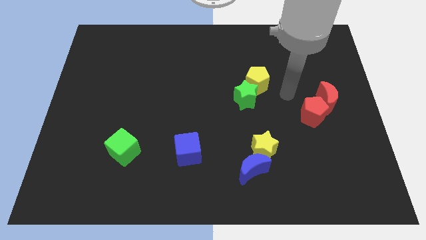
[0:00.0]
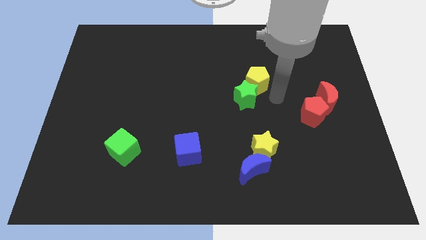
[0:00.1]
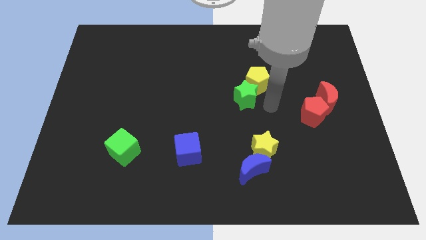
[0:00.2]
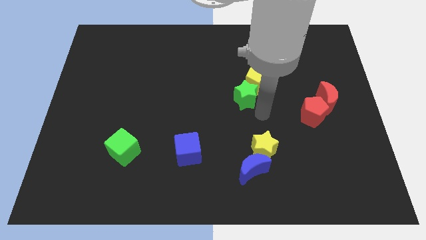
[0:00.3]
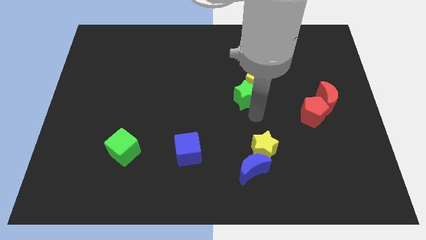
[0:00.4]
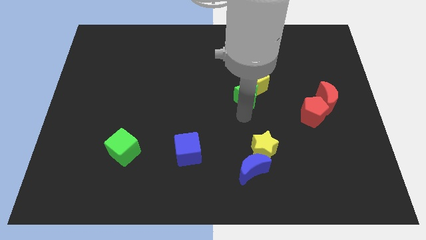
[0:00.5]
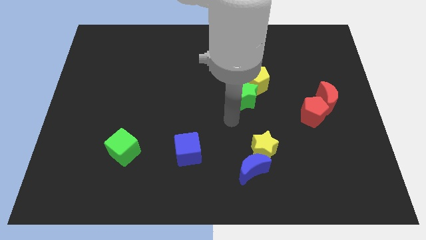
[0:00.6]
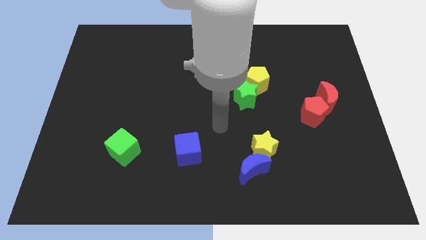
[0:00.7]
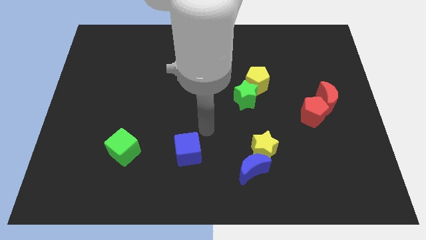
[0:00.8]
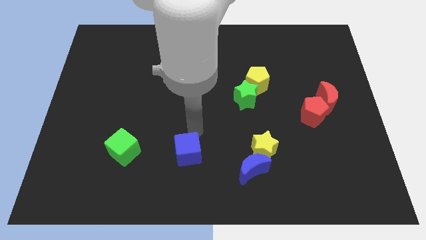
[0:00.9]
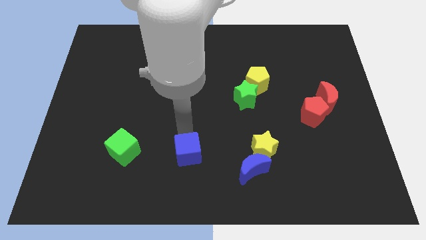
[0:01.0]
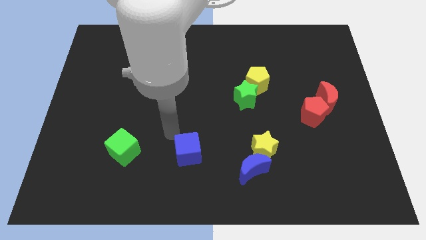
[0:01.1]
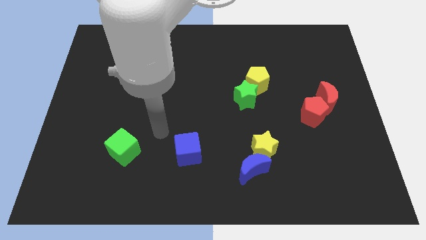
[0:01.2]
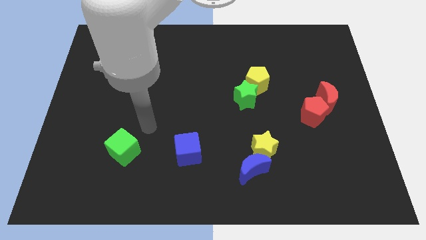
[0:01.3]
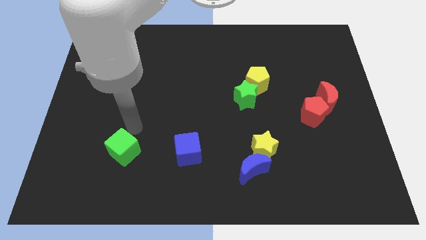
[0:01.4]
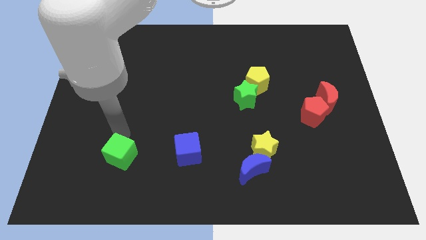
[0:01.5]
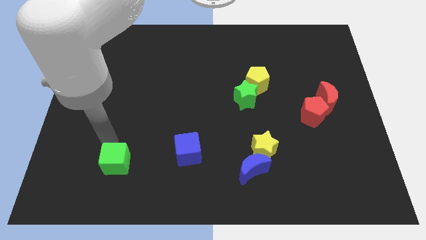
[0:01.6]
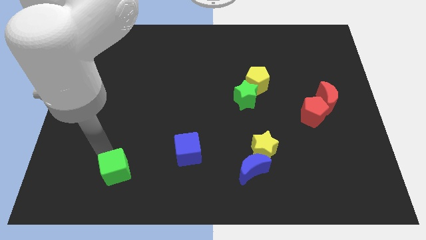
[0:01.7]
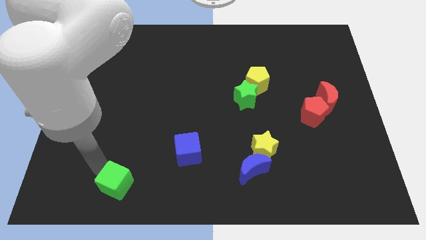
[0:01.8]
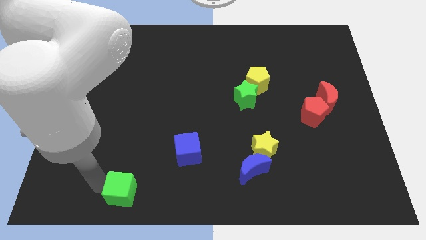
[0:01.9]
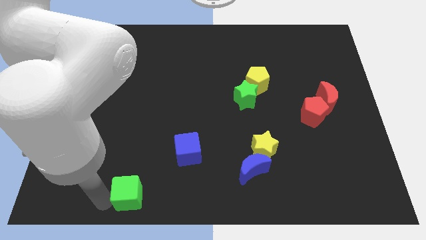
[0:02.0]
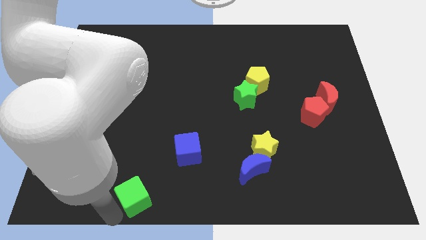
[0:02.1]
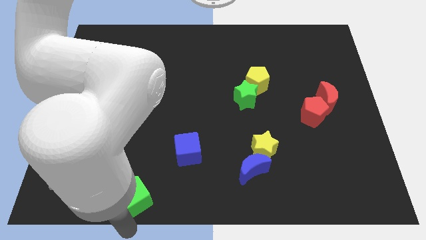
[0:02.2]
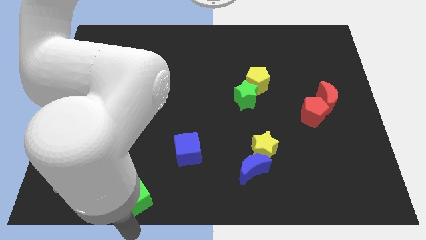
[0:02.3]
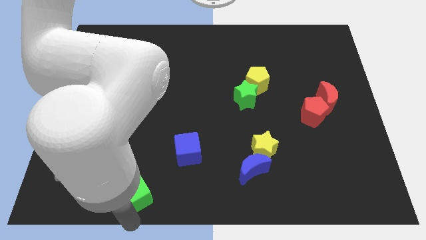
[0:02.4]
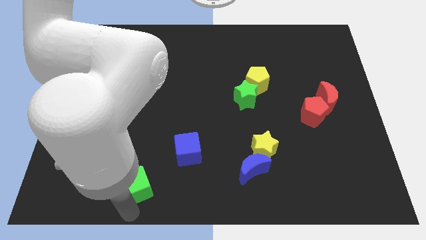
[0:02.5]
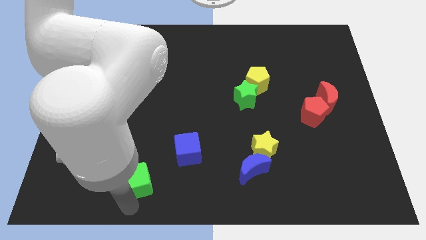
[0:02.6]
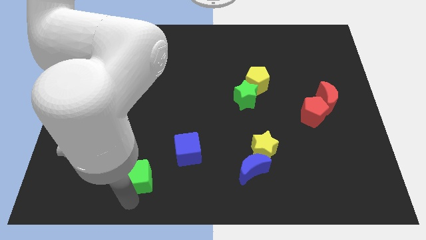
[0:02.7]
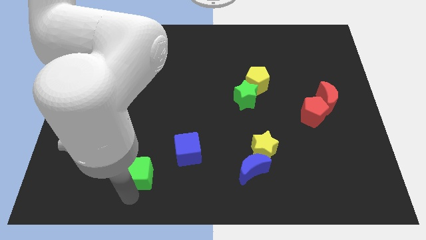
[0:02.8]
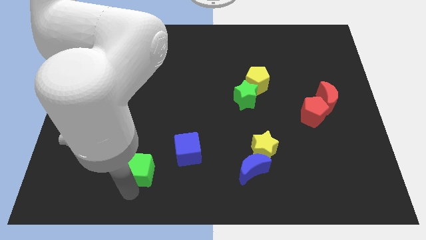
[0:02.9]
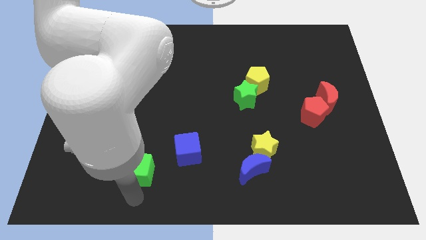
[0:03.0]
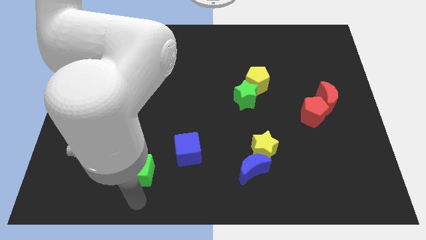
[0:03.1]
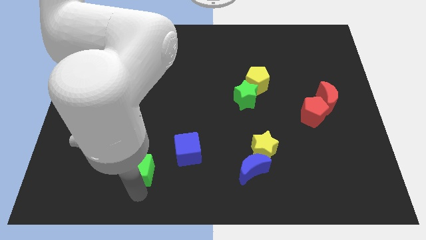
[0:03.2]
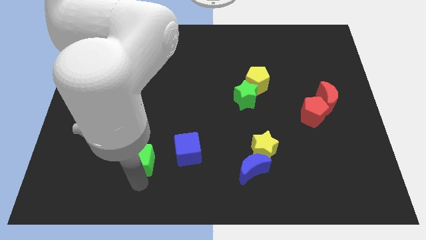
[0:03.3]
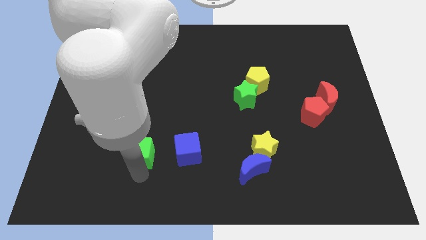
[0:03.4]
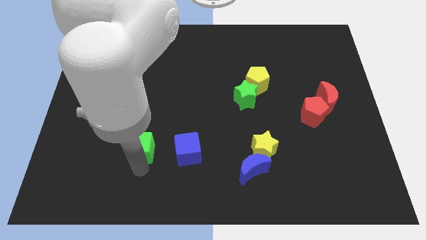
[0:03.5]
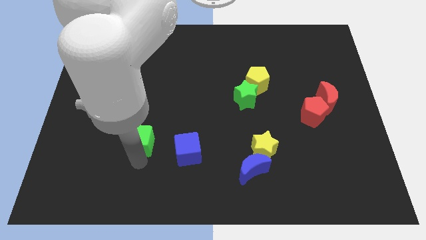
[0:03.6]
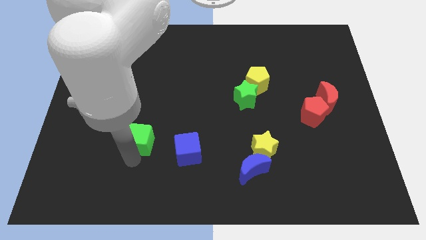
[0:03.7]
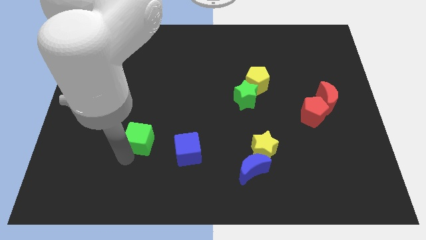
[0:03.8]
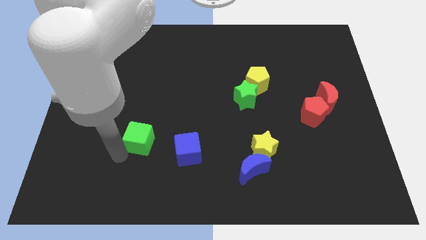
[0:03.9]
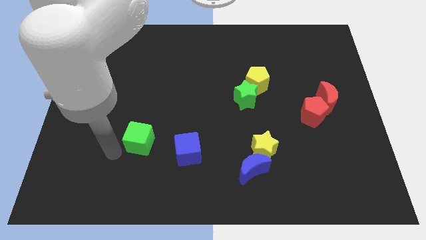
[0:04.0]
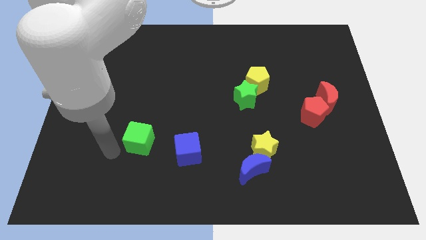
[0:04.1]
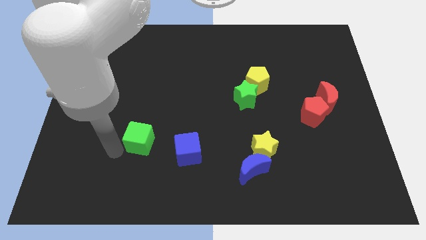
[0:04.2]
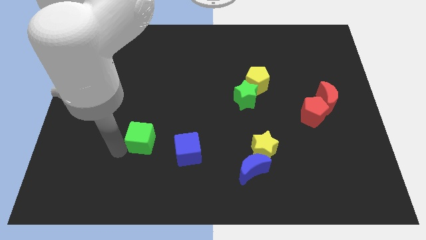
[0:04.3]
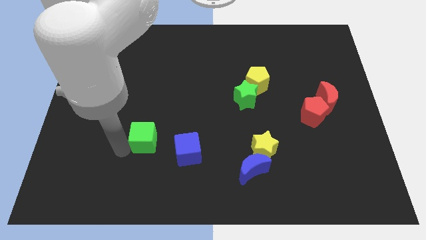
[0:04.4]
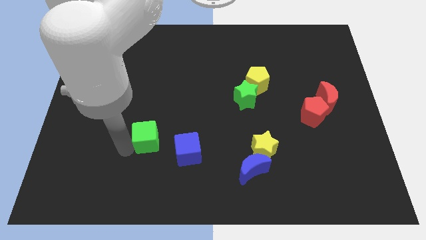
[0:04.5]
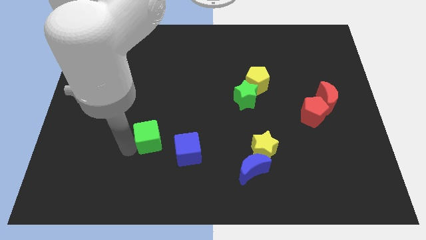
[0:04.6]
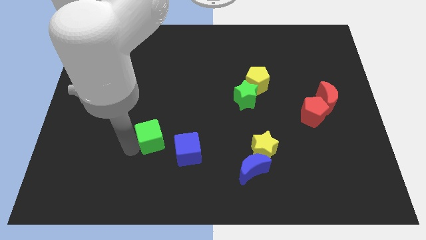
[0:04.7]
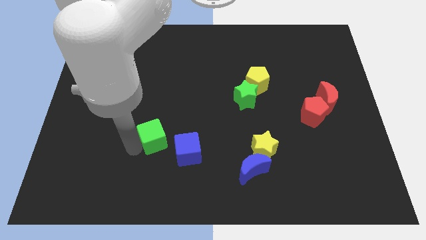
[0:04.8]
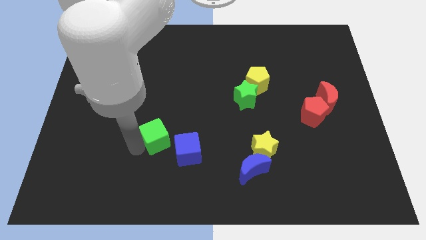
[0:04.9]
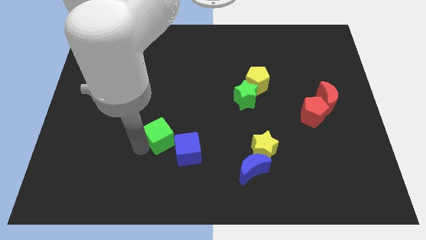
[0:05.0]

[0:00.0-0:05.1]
move the green cube right a little bit

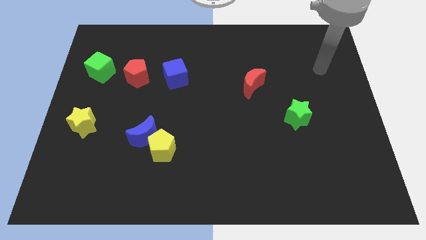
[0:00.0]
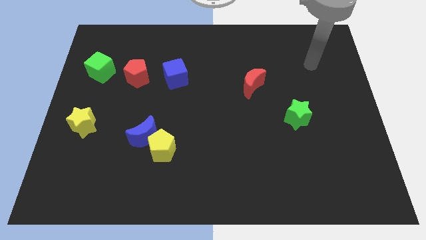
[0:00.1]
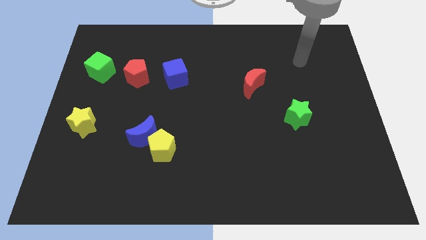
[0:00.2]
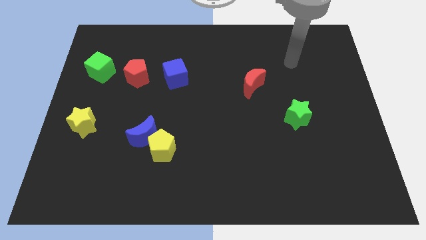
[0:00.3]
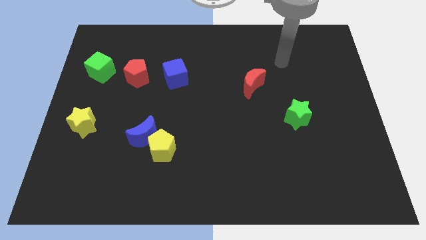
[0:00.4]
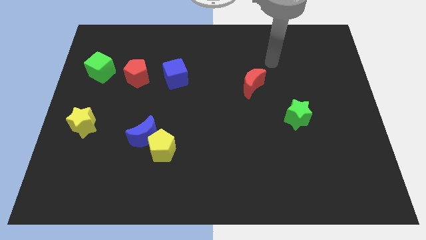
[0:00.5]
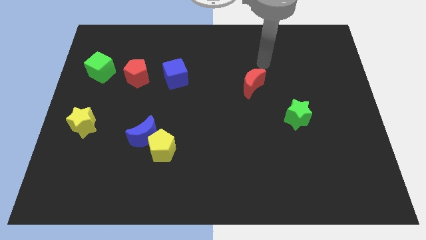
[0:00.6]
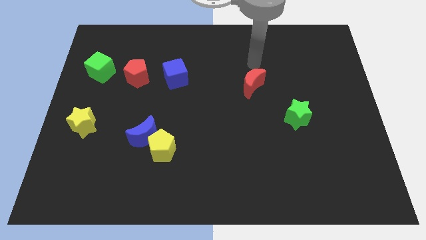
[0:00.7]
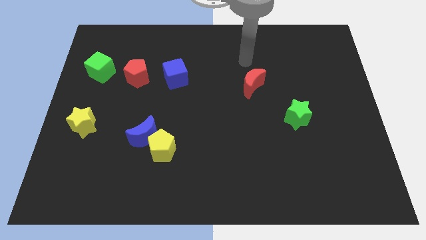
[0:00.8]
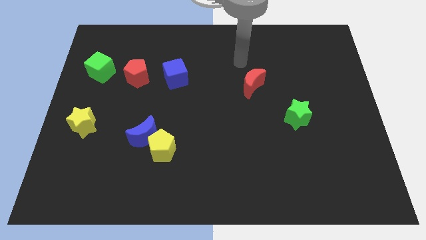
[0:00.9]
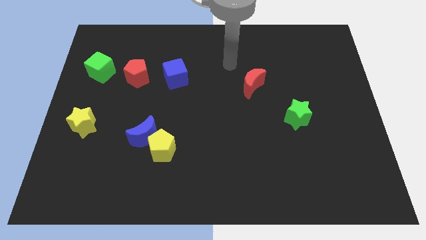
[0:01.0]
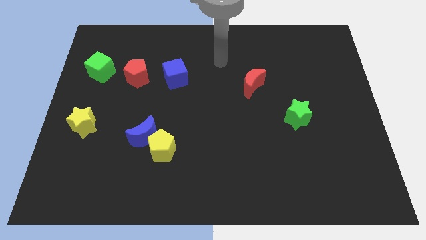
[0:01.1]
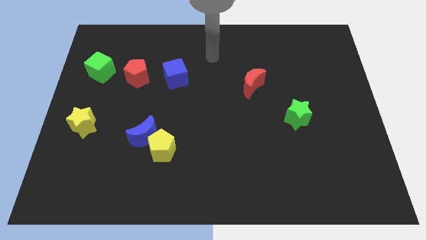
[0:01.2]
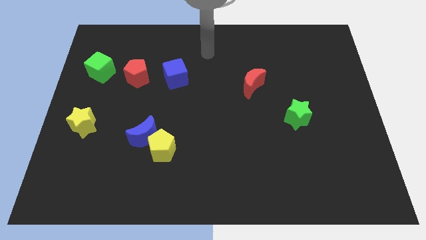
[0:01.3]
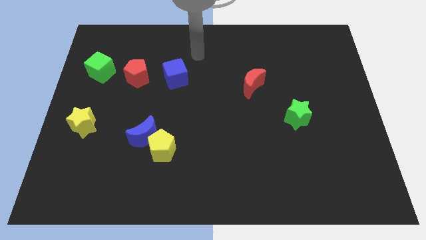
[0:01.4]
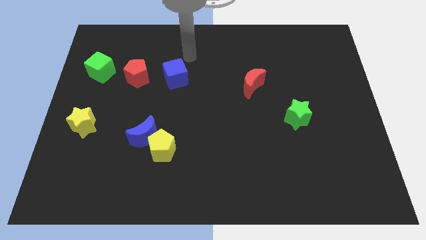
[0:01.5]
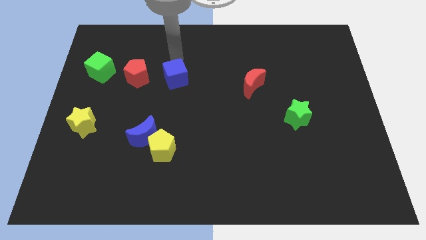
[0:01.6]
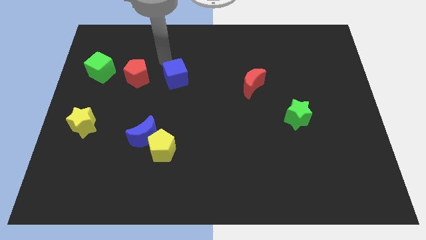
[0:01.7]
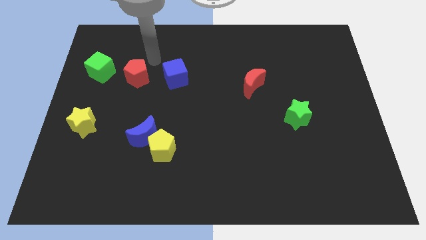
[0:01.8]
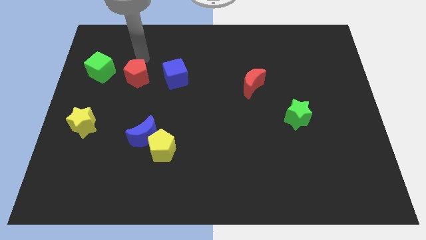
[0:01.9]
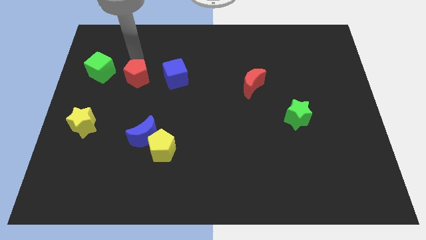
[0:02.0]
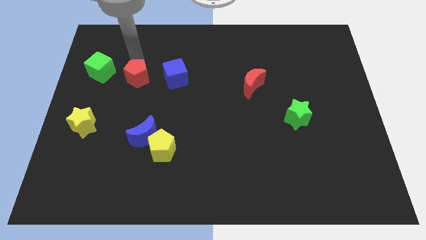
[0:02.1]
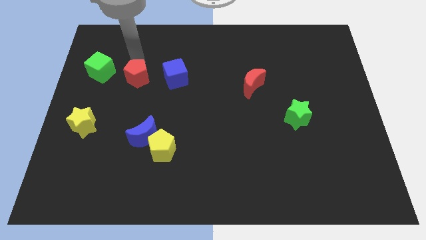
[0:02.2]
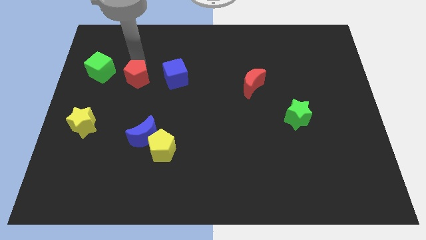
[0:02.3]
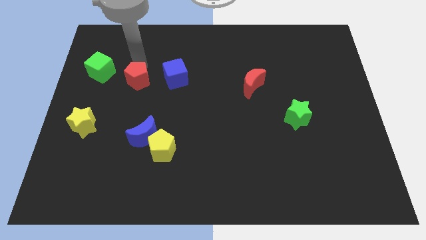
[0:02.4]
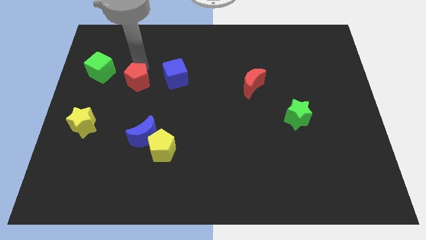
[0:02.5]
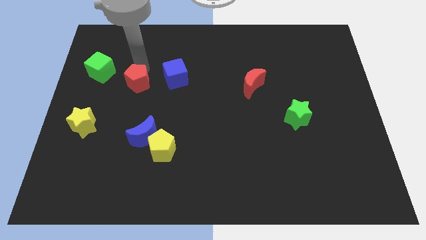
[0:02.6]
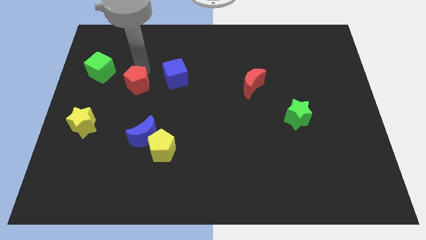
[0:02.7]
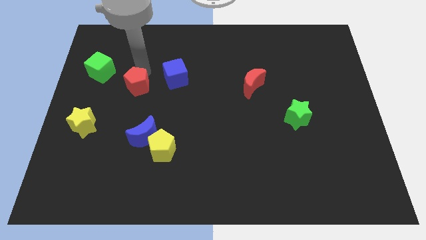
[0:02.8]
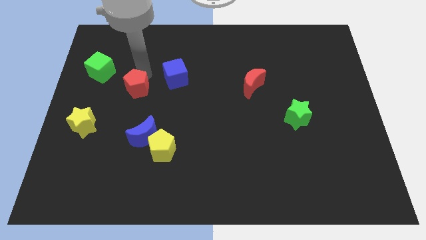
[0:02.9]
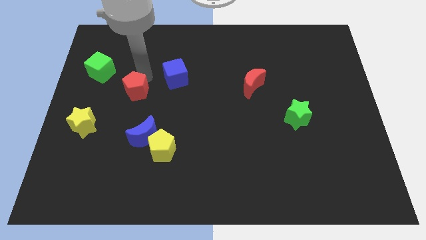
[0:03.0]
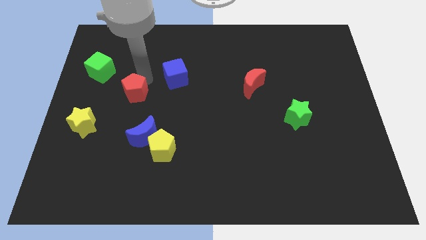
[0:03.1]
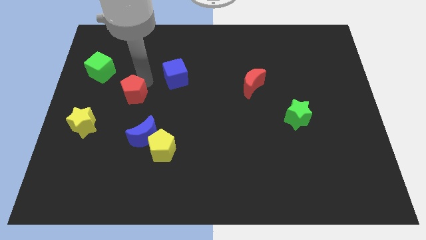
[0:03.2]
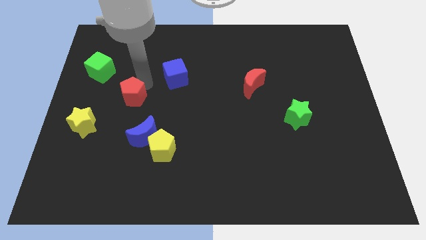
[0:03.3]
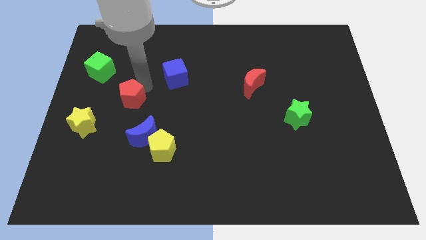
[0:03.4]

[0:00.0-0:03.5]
slide the red pentagon downwards somewhat
